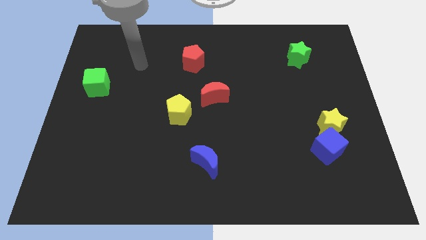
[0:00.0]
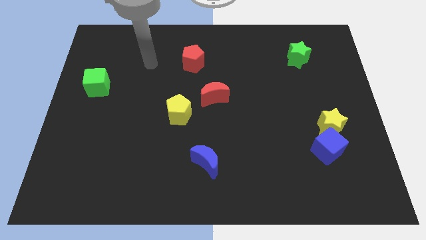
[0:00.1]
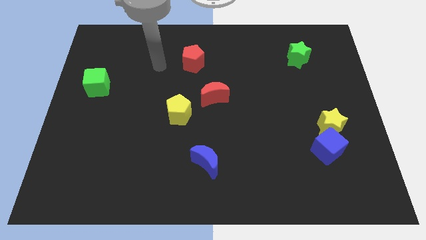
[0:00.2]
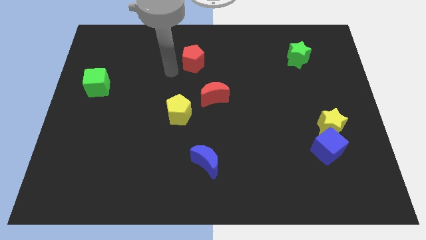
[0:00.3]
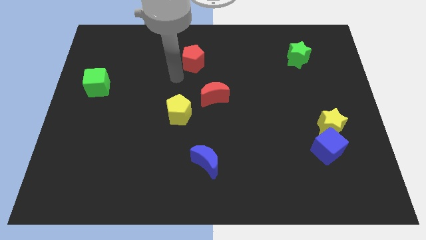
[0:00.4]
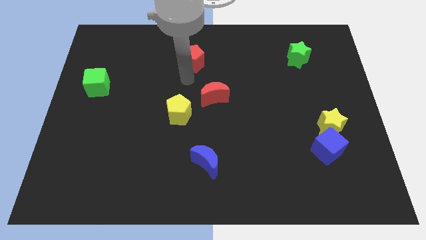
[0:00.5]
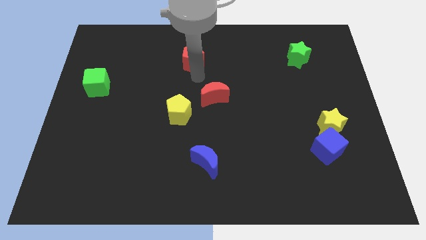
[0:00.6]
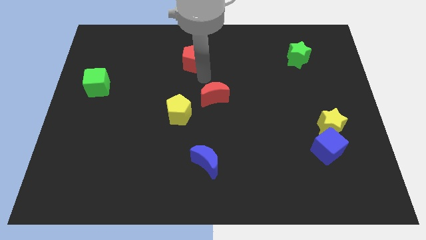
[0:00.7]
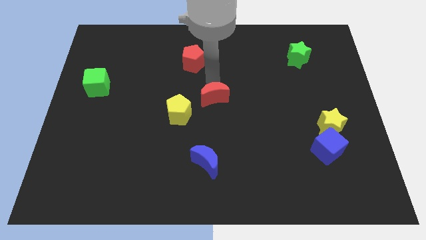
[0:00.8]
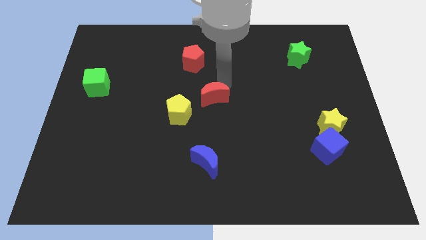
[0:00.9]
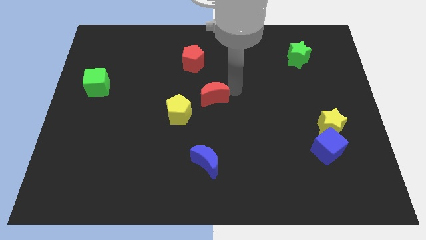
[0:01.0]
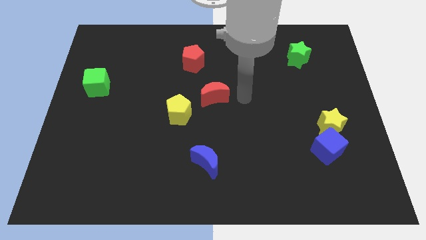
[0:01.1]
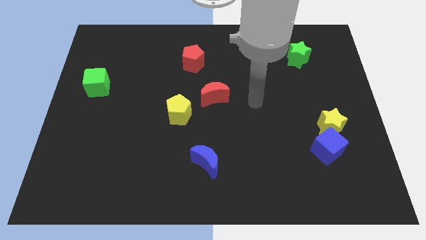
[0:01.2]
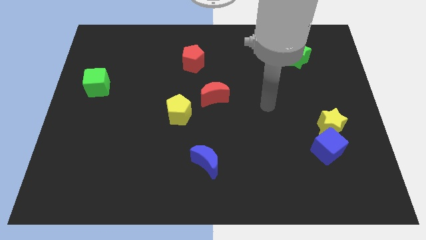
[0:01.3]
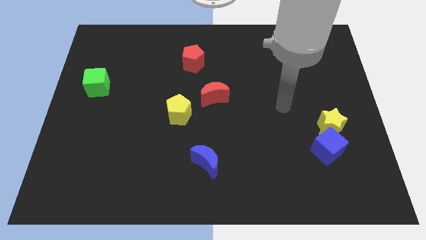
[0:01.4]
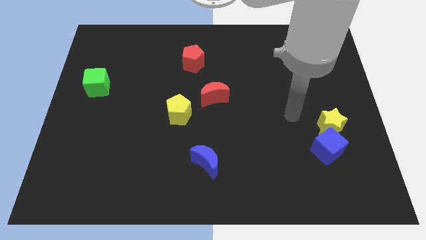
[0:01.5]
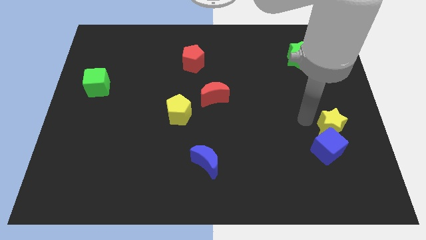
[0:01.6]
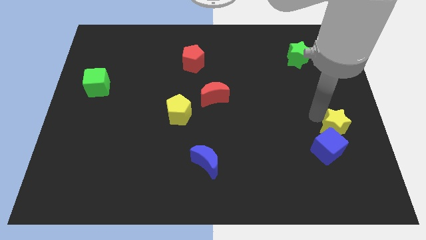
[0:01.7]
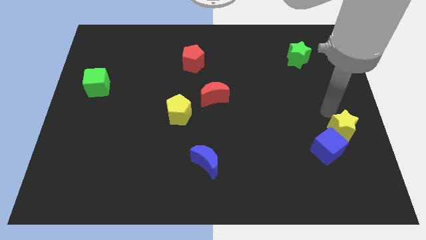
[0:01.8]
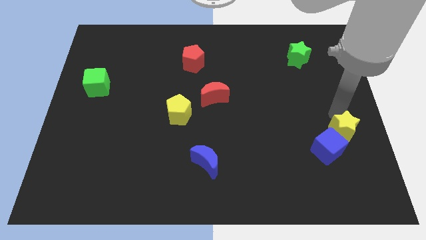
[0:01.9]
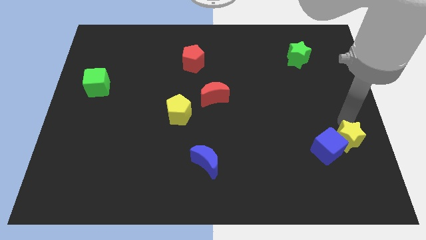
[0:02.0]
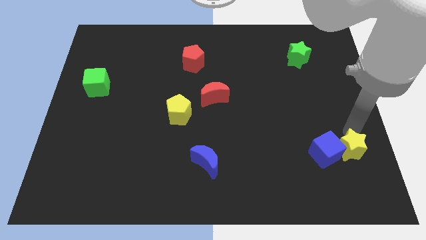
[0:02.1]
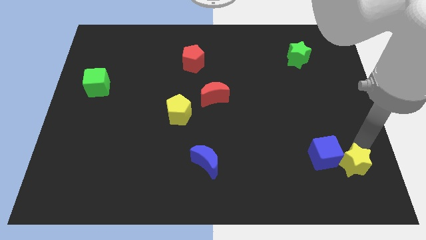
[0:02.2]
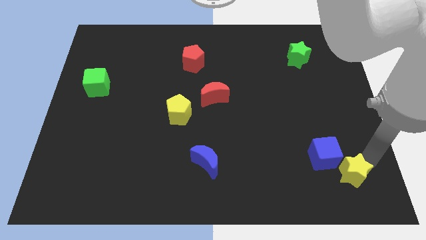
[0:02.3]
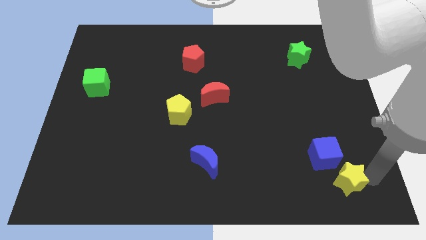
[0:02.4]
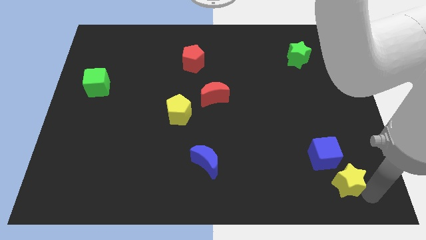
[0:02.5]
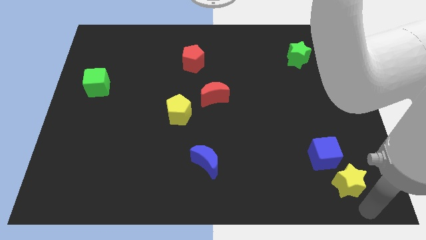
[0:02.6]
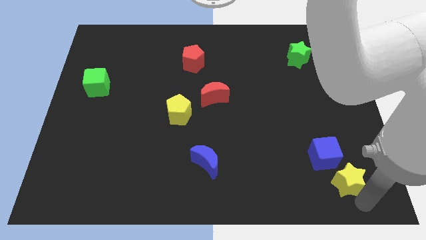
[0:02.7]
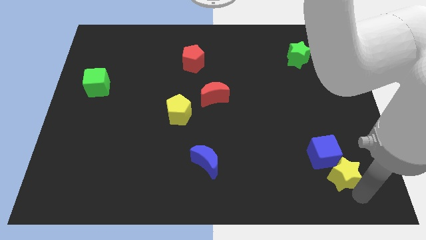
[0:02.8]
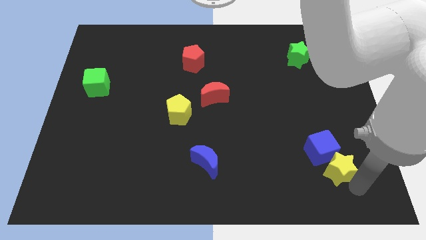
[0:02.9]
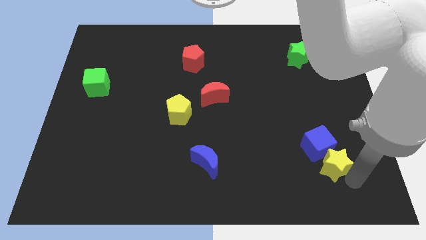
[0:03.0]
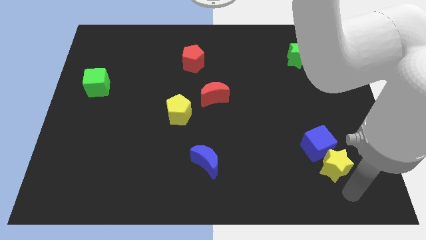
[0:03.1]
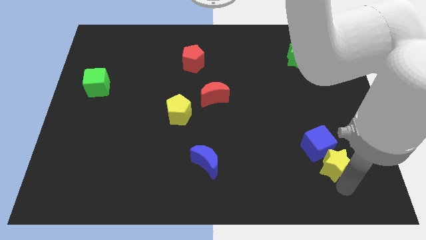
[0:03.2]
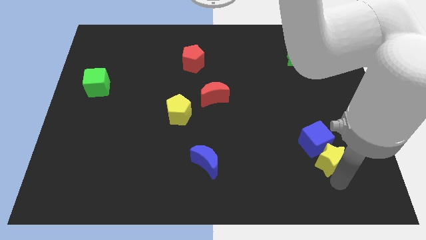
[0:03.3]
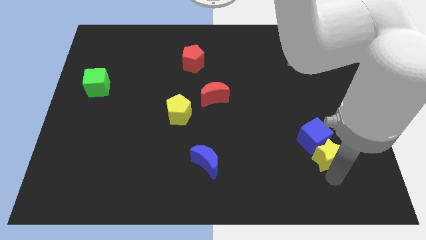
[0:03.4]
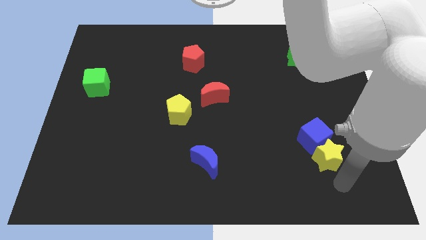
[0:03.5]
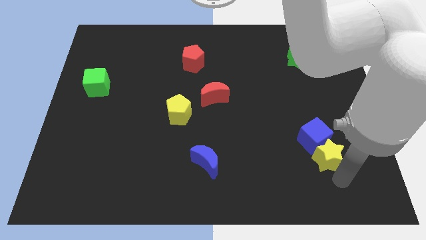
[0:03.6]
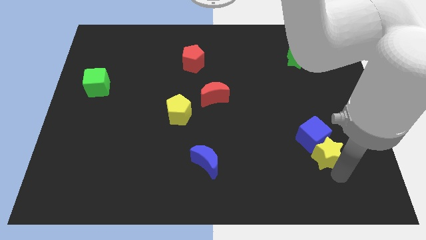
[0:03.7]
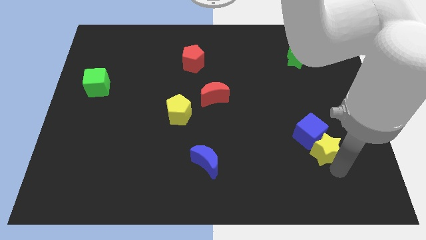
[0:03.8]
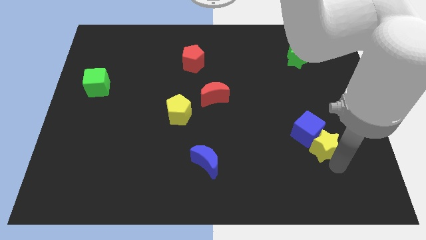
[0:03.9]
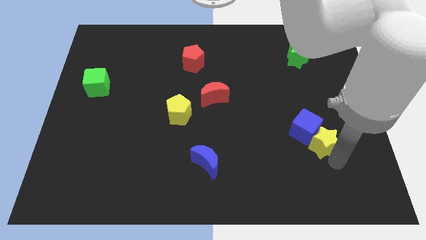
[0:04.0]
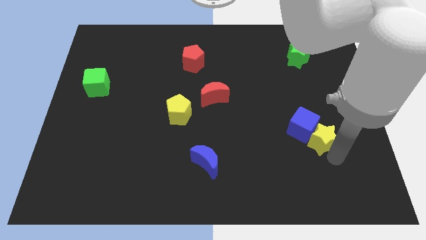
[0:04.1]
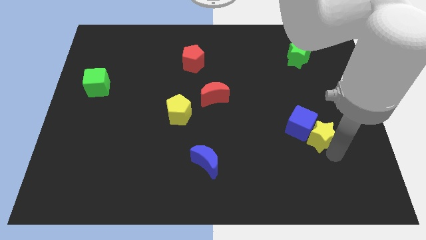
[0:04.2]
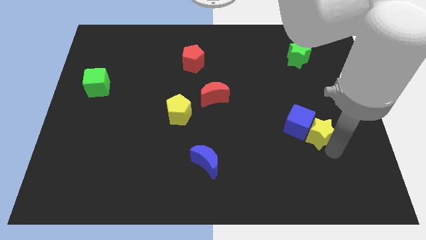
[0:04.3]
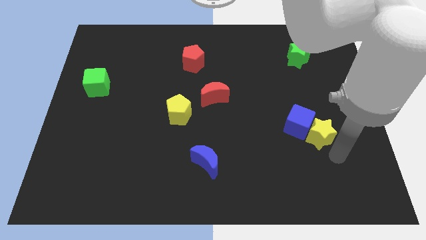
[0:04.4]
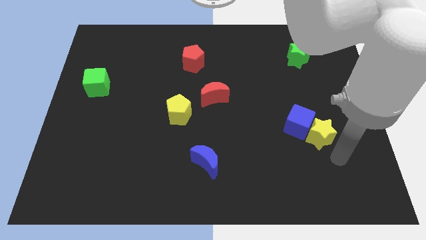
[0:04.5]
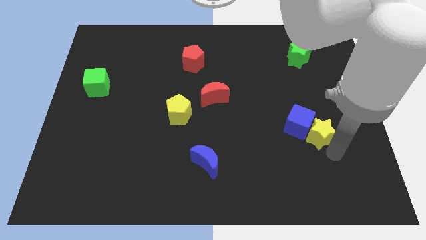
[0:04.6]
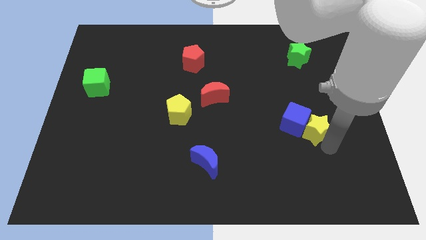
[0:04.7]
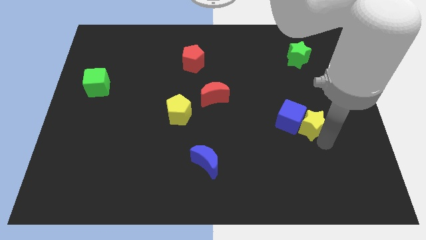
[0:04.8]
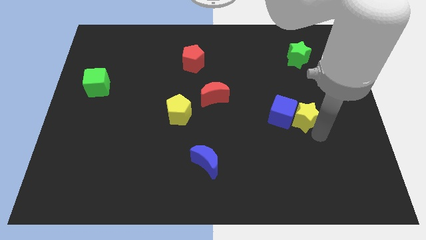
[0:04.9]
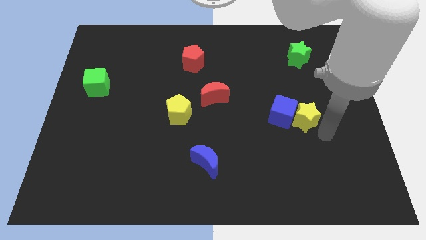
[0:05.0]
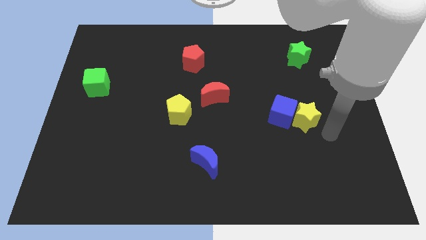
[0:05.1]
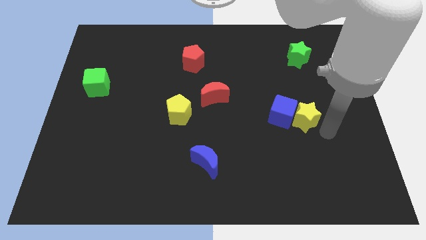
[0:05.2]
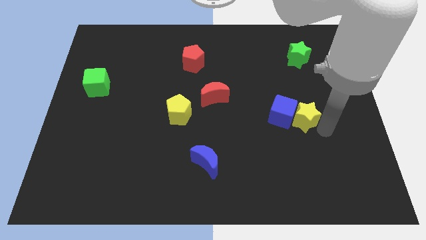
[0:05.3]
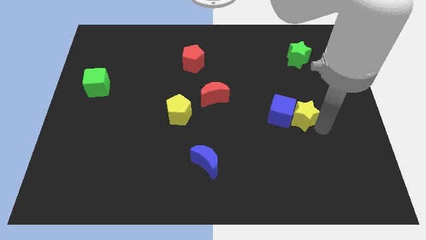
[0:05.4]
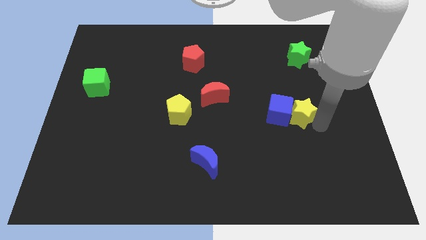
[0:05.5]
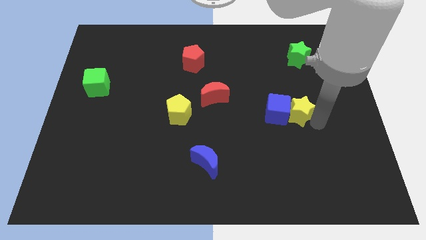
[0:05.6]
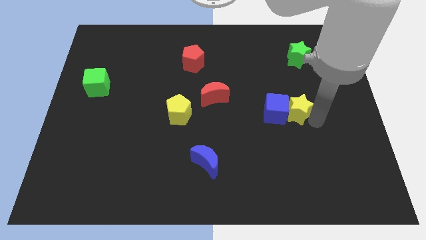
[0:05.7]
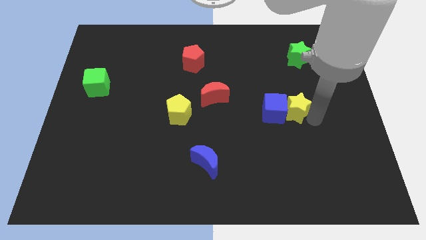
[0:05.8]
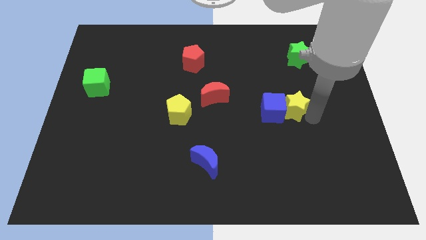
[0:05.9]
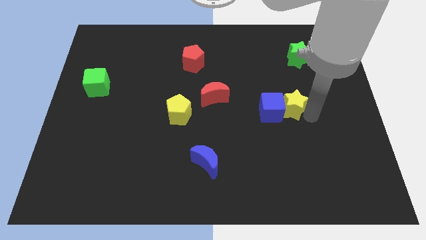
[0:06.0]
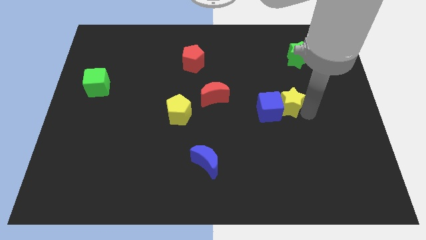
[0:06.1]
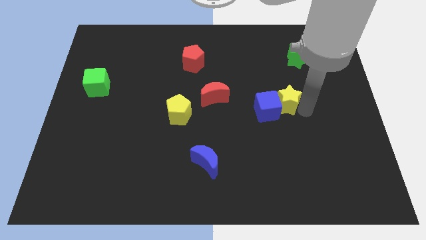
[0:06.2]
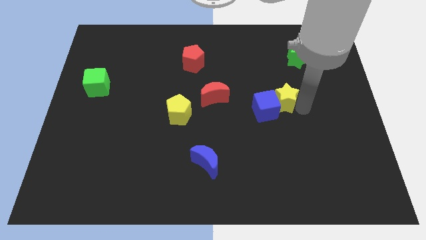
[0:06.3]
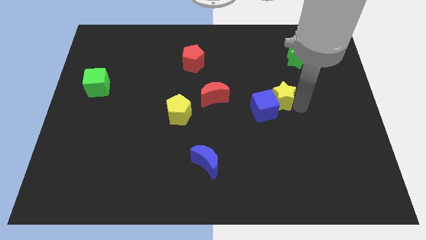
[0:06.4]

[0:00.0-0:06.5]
slide the yellow star to the right side of the red moon
